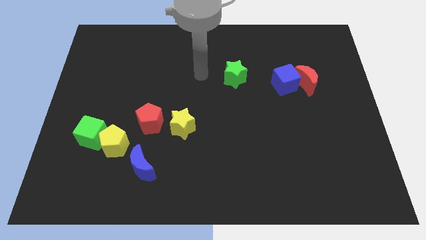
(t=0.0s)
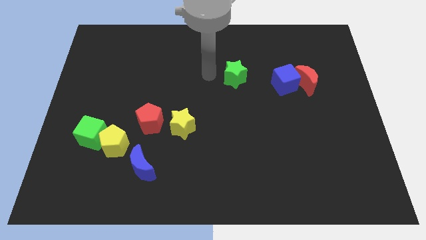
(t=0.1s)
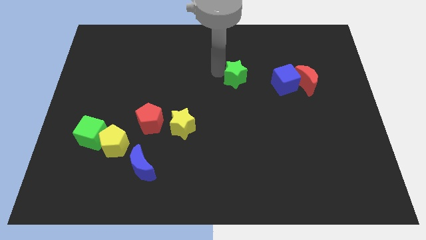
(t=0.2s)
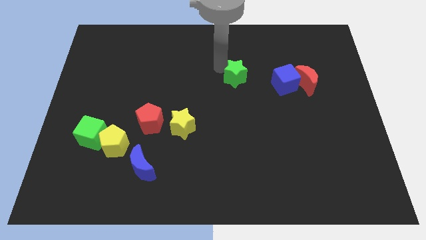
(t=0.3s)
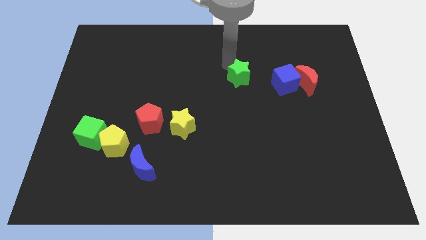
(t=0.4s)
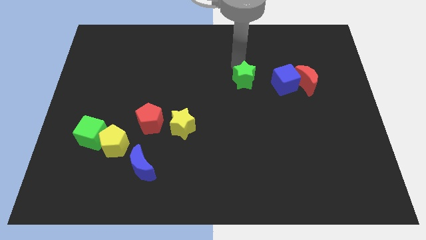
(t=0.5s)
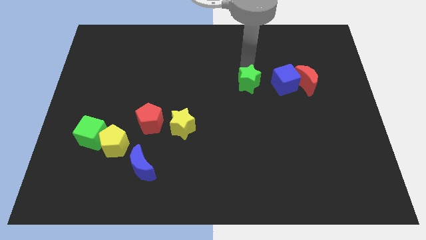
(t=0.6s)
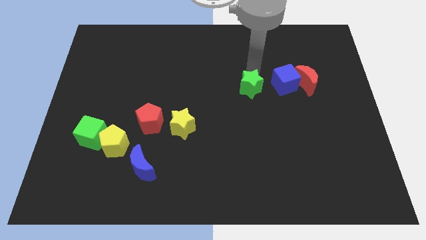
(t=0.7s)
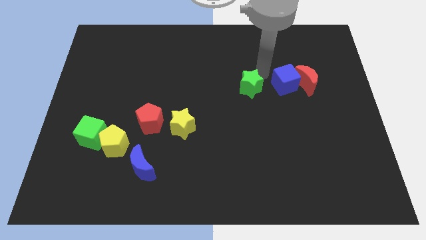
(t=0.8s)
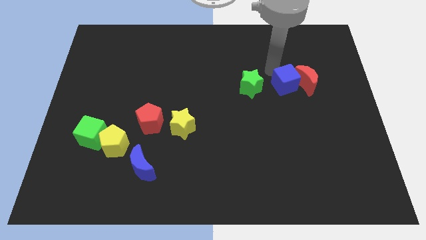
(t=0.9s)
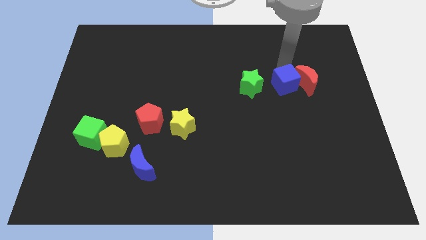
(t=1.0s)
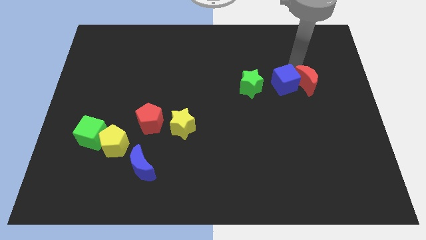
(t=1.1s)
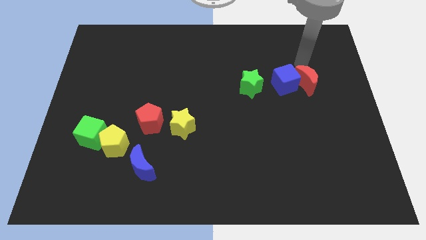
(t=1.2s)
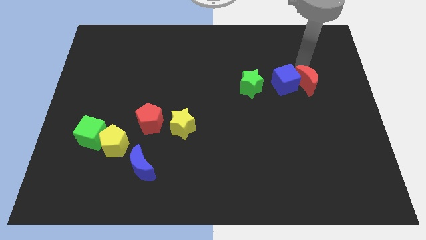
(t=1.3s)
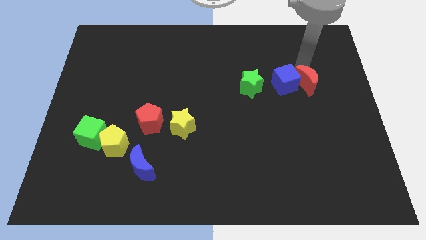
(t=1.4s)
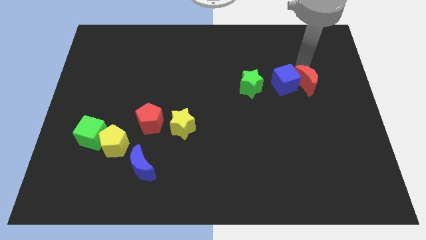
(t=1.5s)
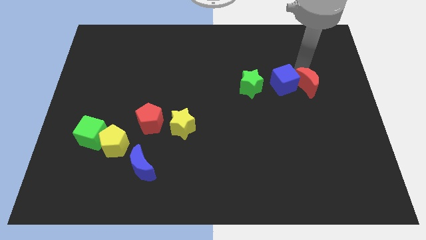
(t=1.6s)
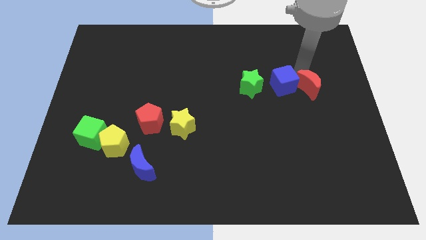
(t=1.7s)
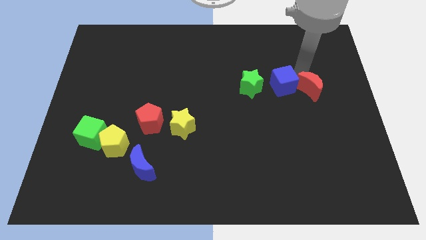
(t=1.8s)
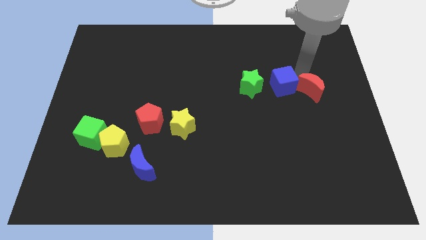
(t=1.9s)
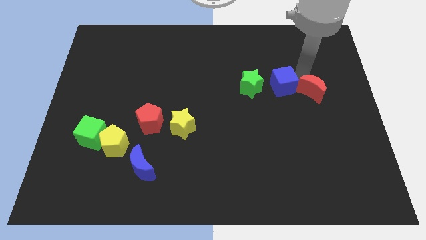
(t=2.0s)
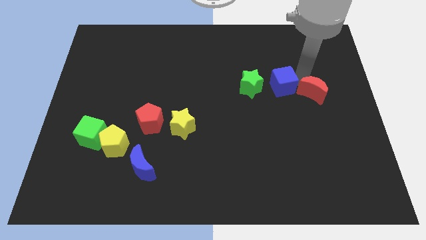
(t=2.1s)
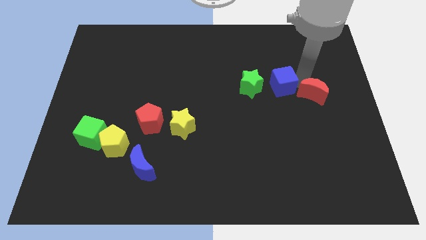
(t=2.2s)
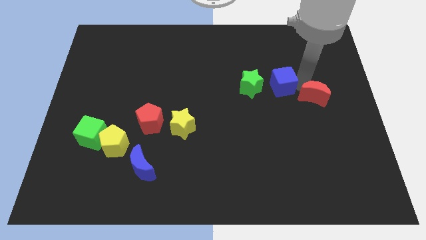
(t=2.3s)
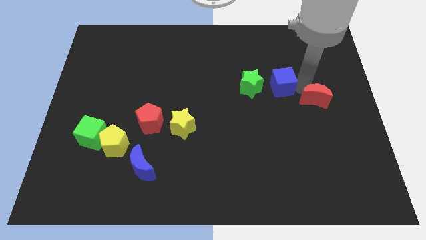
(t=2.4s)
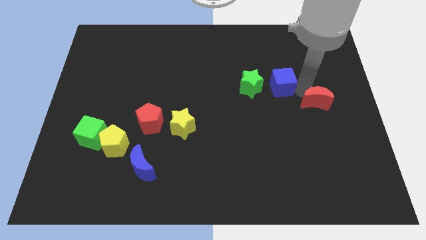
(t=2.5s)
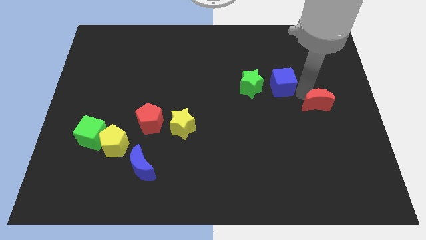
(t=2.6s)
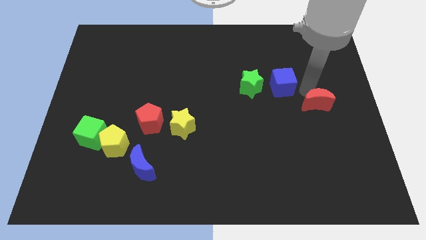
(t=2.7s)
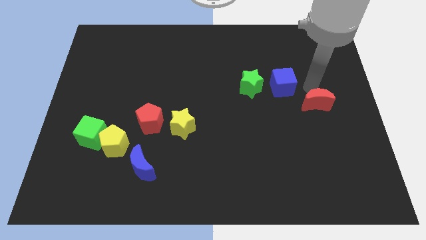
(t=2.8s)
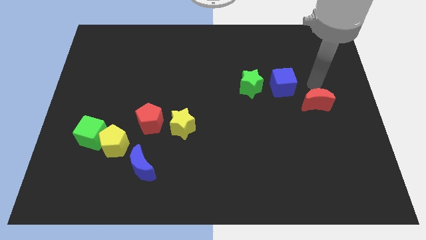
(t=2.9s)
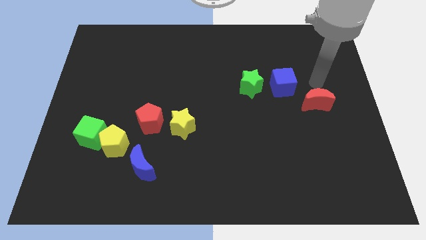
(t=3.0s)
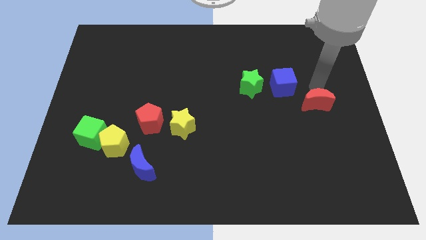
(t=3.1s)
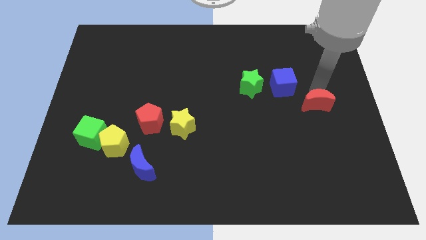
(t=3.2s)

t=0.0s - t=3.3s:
move the red moon down a bit

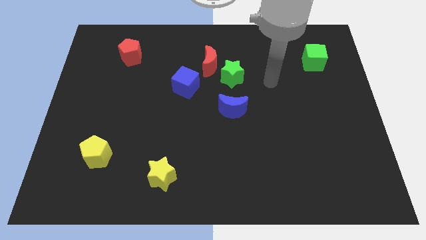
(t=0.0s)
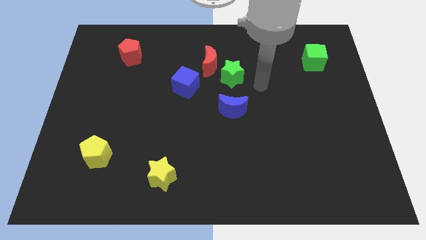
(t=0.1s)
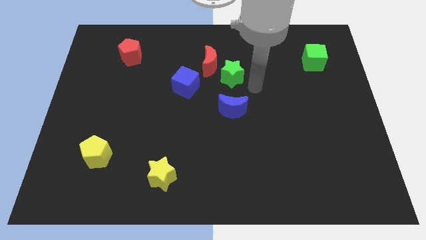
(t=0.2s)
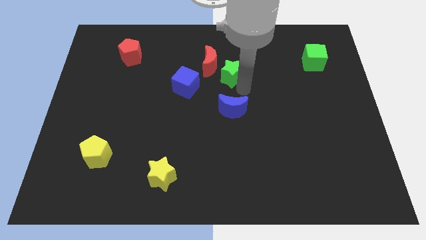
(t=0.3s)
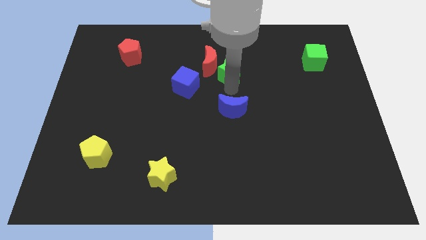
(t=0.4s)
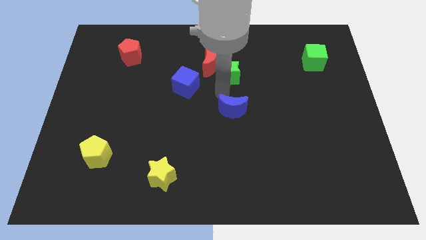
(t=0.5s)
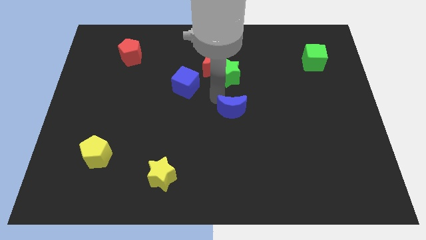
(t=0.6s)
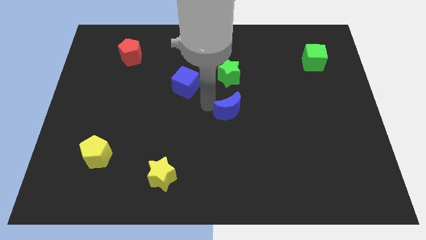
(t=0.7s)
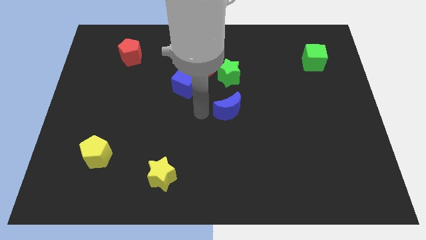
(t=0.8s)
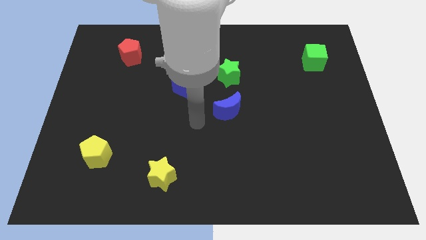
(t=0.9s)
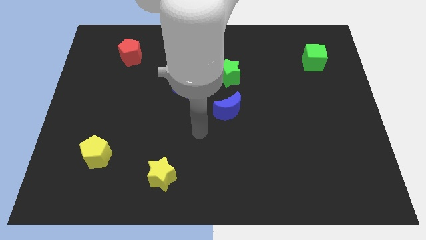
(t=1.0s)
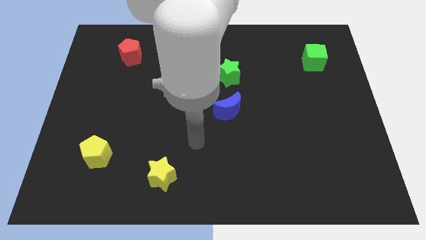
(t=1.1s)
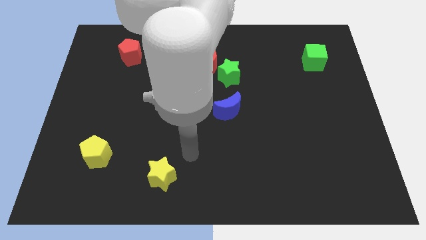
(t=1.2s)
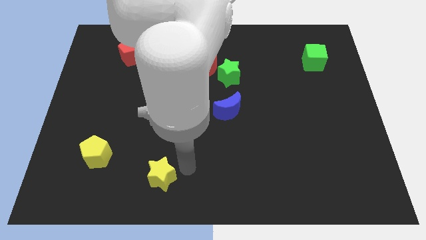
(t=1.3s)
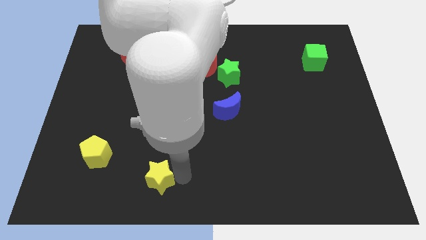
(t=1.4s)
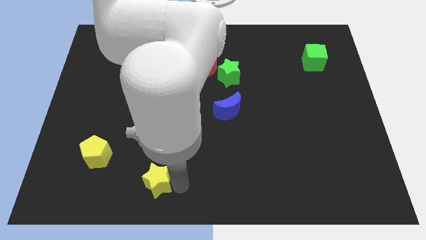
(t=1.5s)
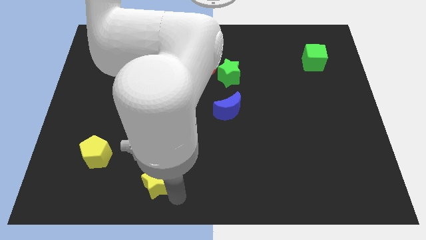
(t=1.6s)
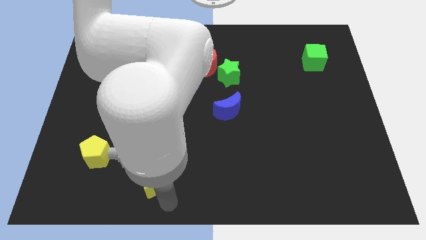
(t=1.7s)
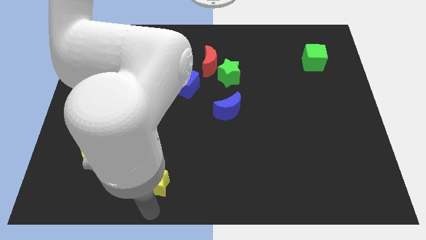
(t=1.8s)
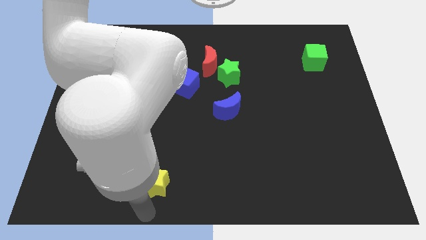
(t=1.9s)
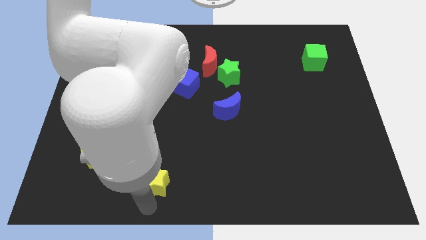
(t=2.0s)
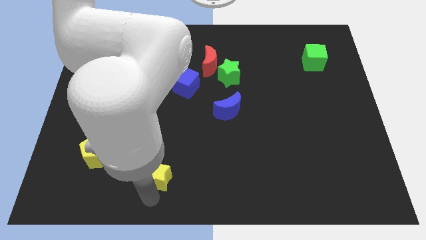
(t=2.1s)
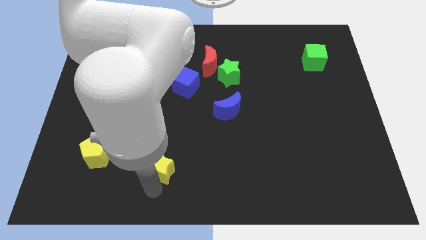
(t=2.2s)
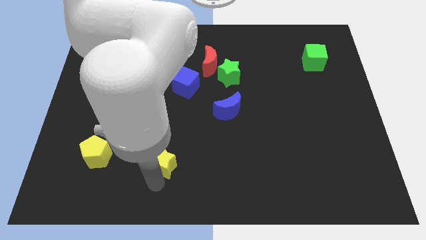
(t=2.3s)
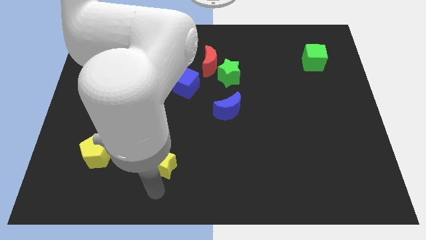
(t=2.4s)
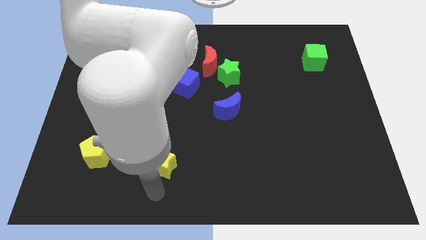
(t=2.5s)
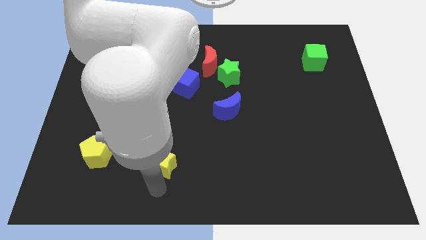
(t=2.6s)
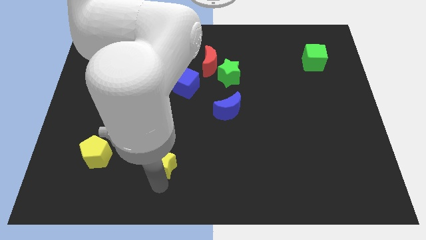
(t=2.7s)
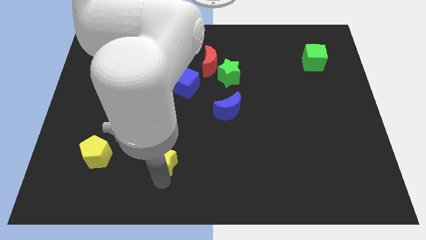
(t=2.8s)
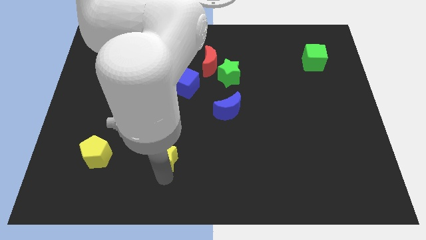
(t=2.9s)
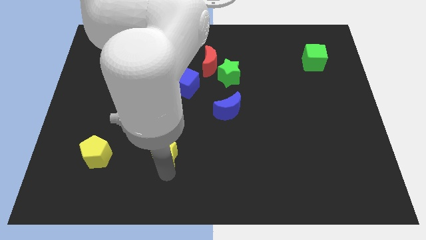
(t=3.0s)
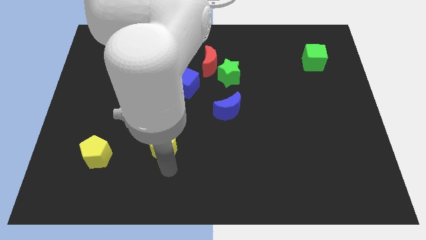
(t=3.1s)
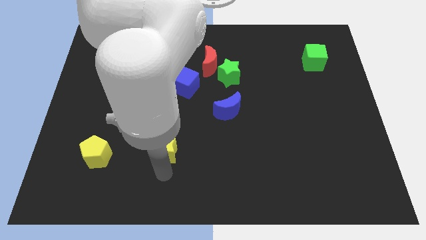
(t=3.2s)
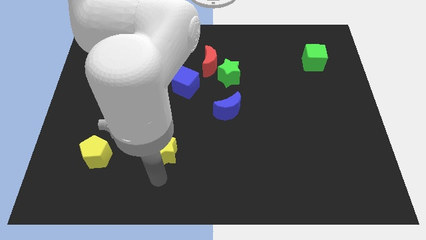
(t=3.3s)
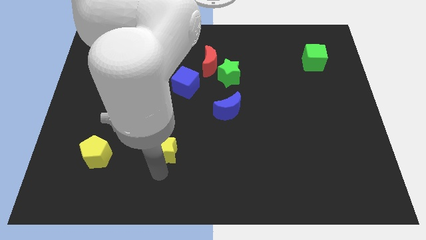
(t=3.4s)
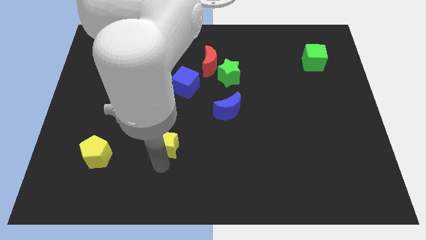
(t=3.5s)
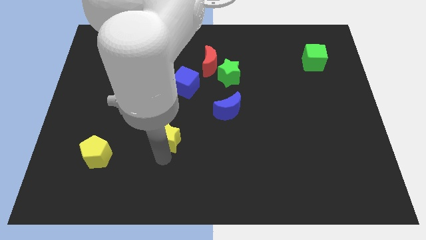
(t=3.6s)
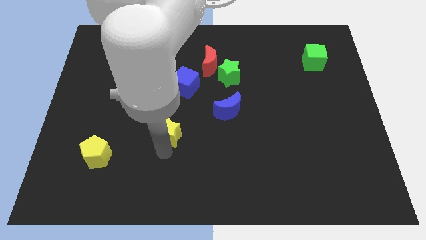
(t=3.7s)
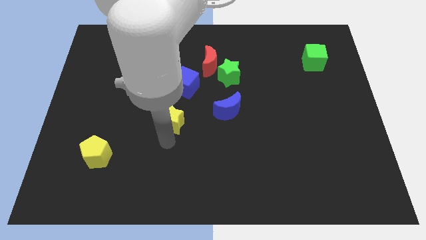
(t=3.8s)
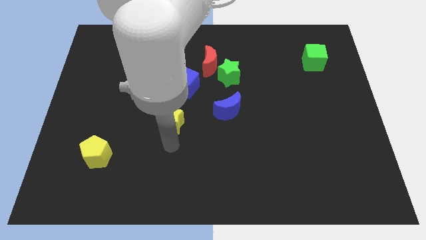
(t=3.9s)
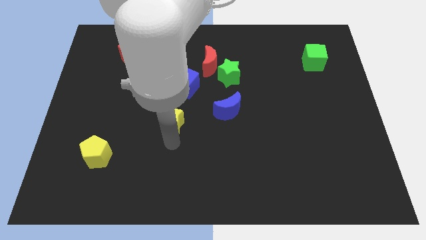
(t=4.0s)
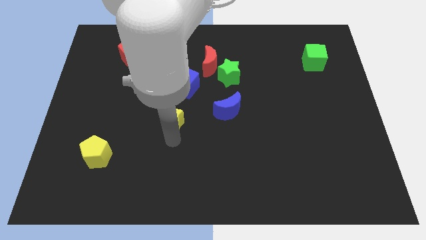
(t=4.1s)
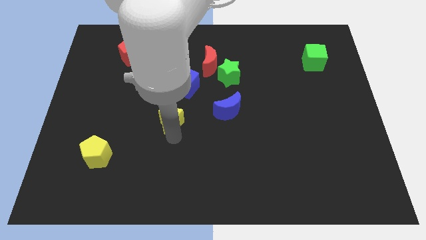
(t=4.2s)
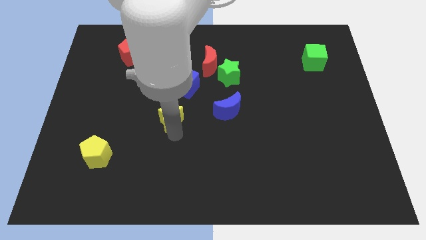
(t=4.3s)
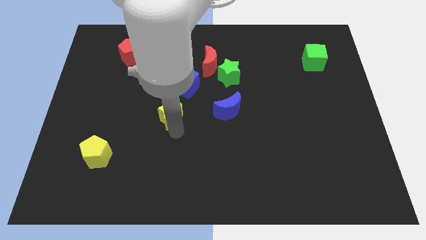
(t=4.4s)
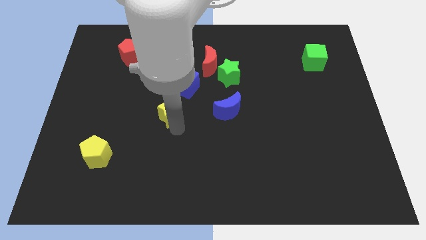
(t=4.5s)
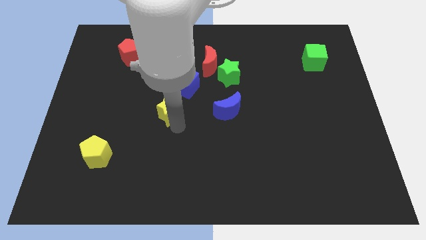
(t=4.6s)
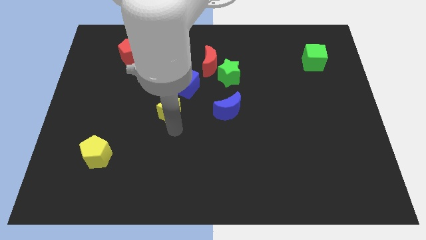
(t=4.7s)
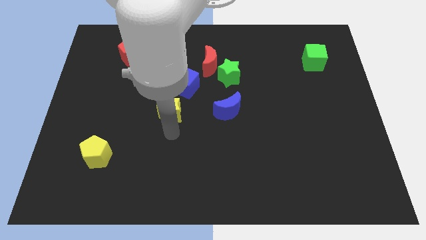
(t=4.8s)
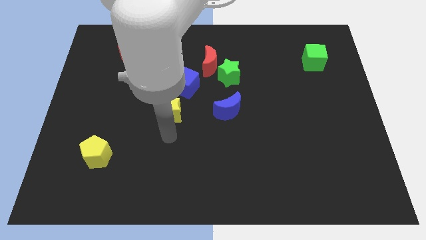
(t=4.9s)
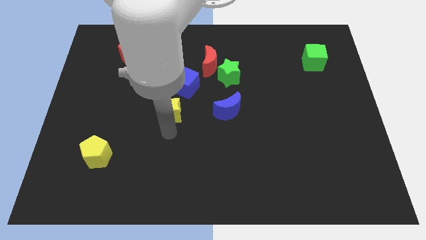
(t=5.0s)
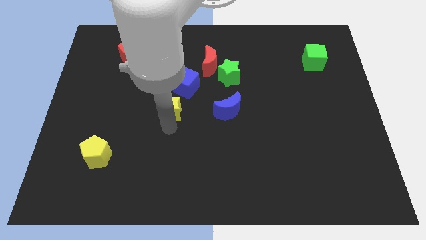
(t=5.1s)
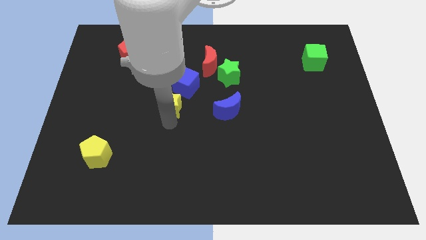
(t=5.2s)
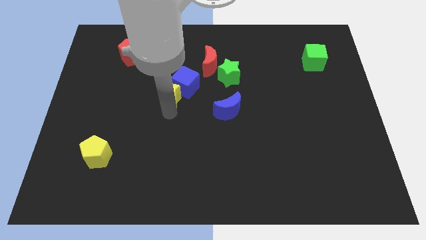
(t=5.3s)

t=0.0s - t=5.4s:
move the yellow star upwards
